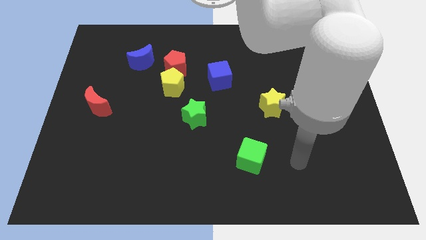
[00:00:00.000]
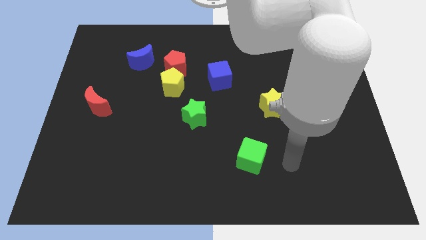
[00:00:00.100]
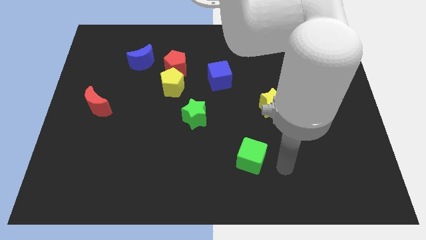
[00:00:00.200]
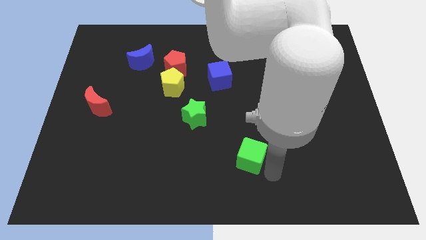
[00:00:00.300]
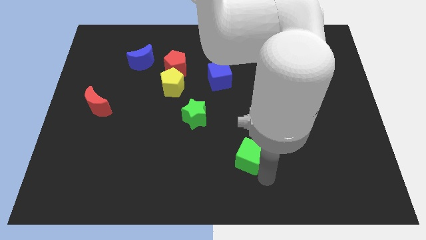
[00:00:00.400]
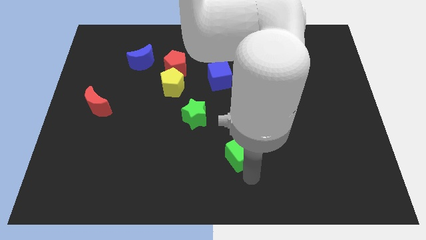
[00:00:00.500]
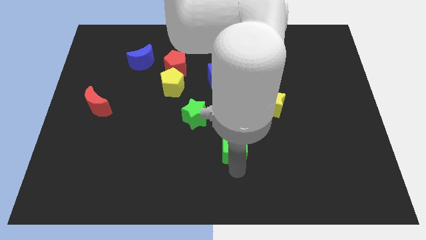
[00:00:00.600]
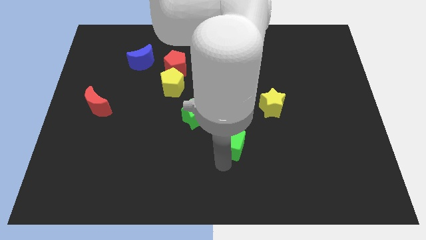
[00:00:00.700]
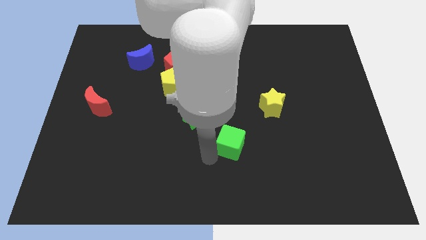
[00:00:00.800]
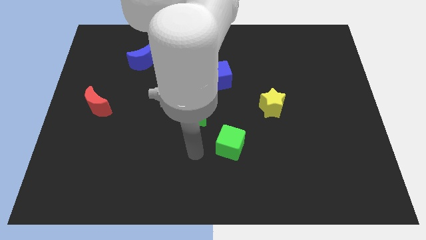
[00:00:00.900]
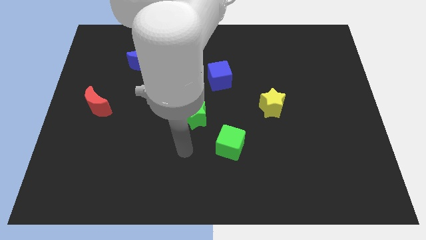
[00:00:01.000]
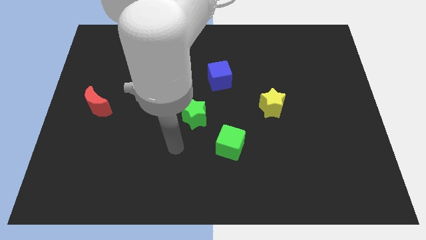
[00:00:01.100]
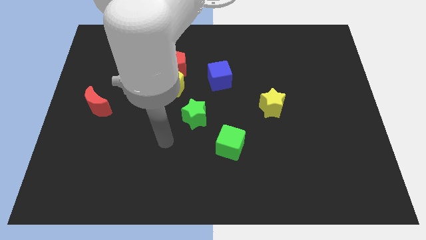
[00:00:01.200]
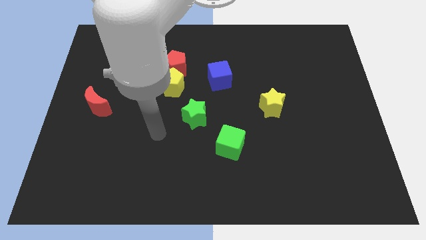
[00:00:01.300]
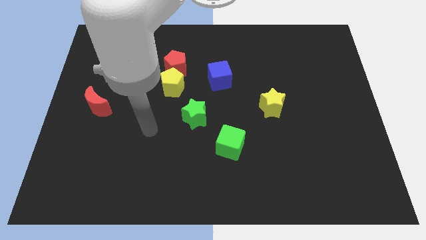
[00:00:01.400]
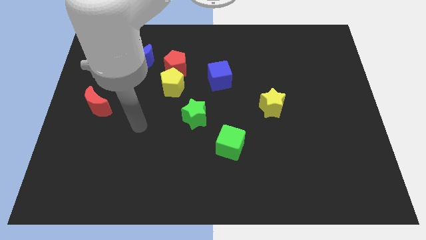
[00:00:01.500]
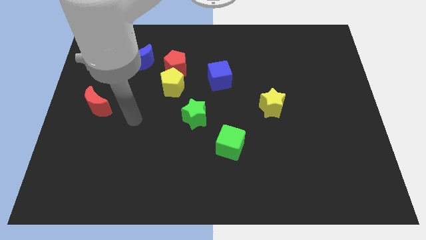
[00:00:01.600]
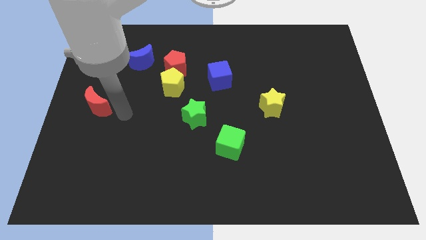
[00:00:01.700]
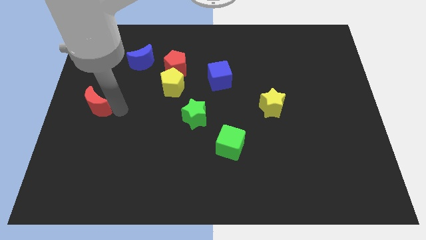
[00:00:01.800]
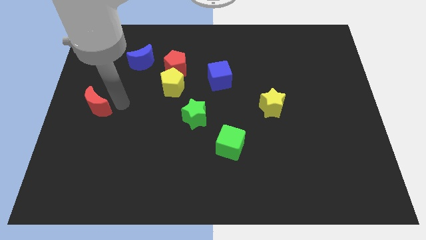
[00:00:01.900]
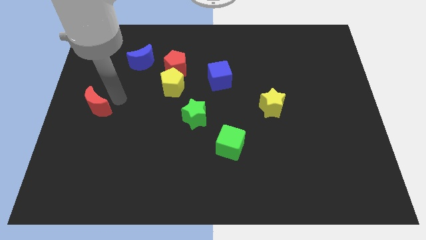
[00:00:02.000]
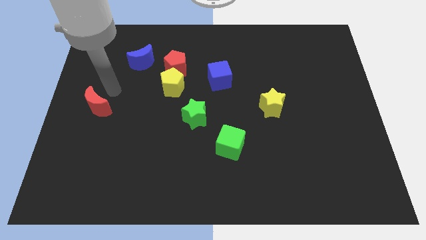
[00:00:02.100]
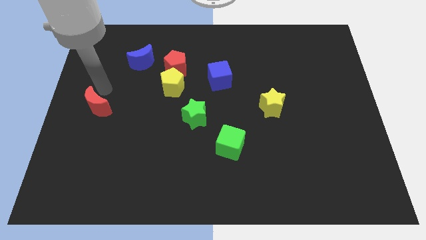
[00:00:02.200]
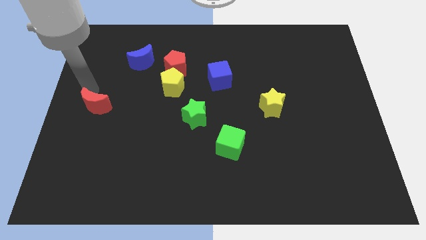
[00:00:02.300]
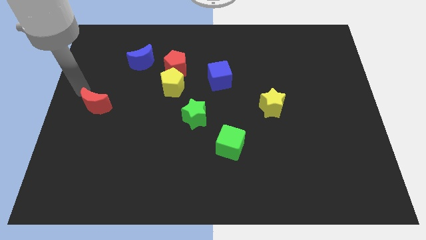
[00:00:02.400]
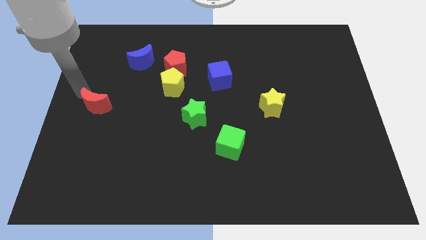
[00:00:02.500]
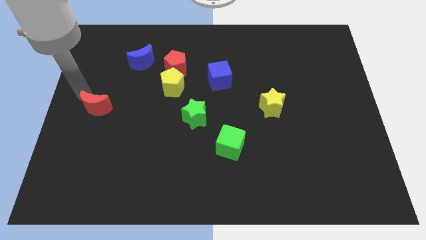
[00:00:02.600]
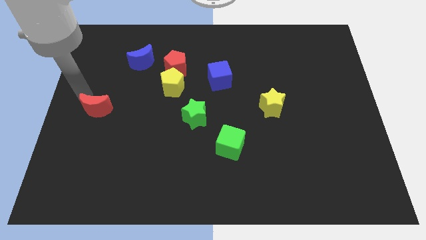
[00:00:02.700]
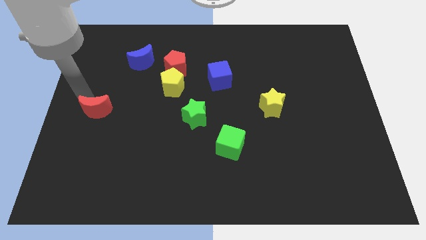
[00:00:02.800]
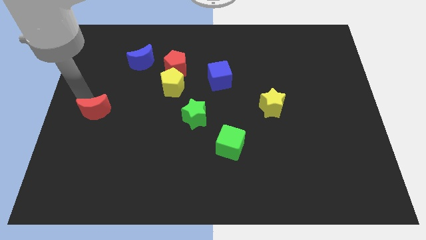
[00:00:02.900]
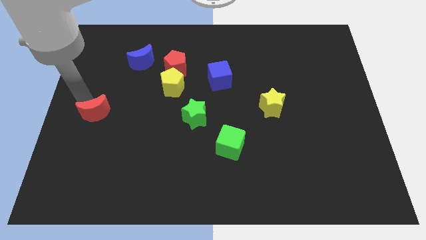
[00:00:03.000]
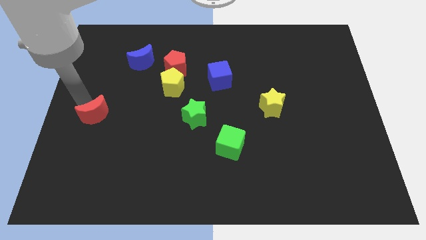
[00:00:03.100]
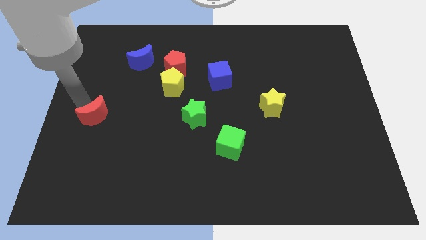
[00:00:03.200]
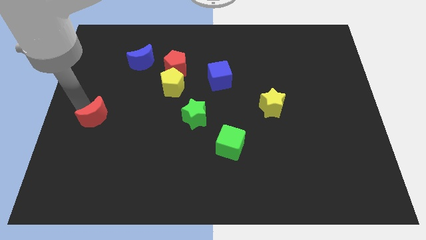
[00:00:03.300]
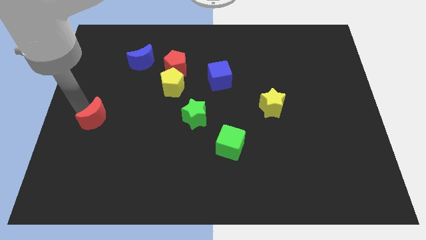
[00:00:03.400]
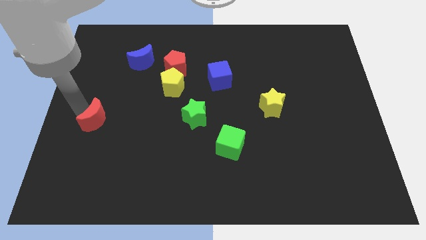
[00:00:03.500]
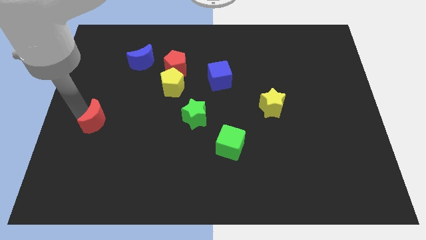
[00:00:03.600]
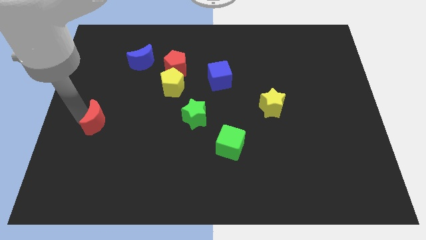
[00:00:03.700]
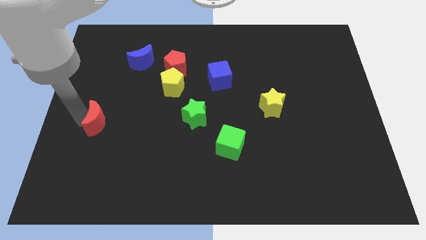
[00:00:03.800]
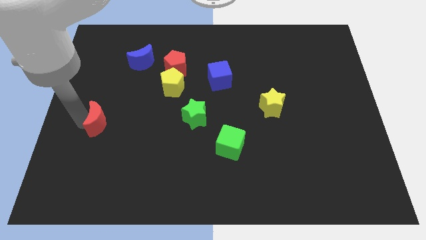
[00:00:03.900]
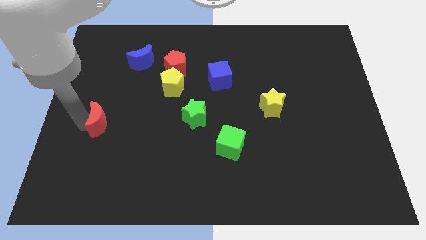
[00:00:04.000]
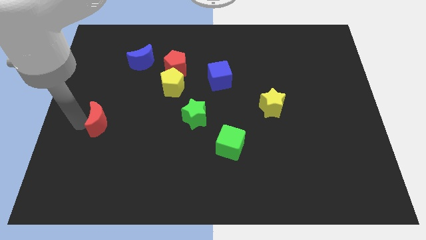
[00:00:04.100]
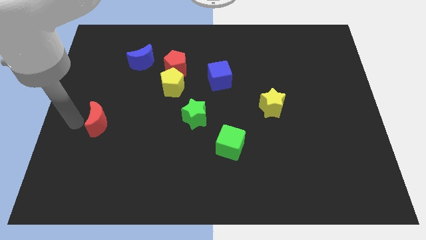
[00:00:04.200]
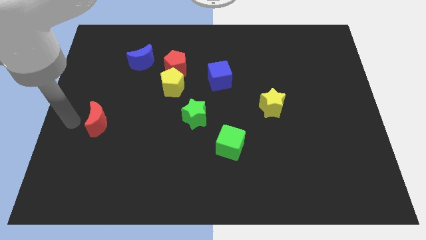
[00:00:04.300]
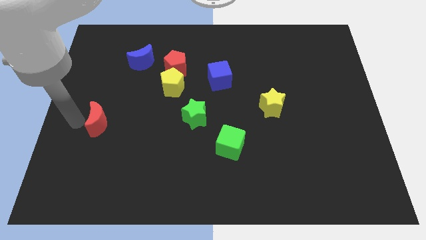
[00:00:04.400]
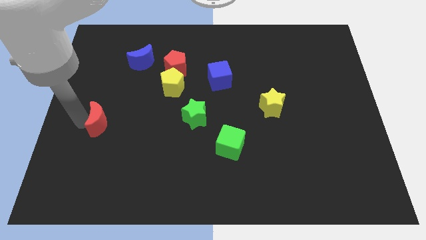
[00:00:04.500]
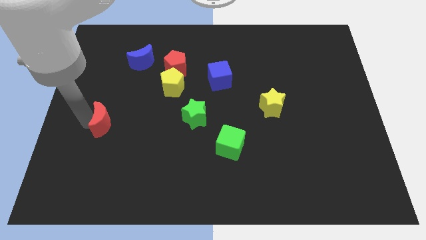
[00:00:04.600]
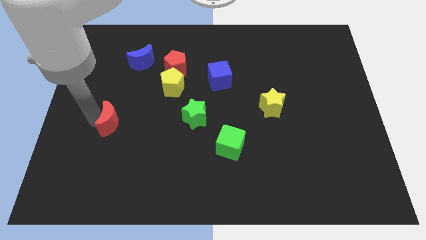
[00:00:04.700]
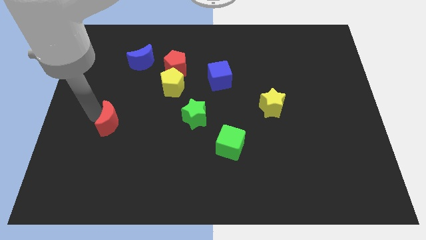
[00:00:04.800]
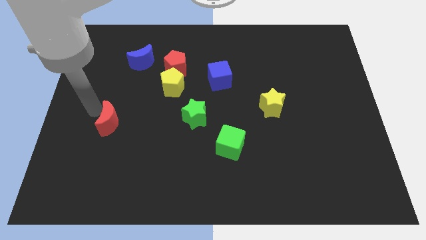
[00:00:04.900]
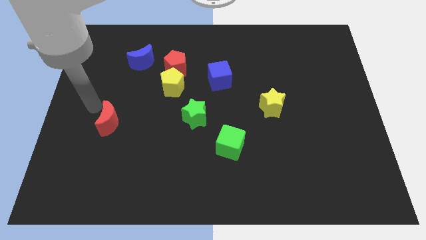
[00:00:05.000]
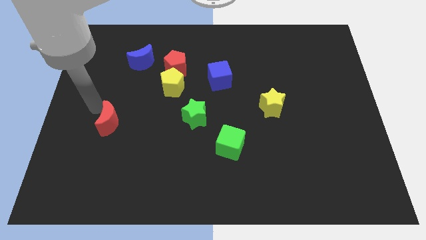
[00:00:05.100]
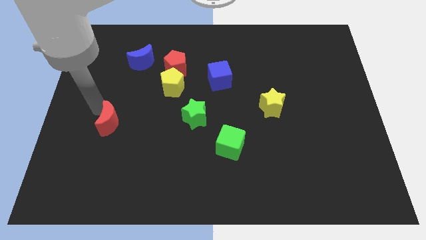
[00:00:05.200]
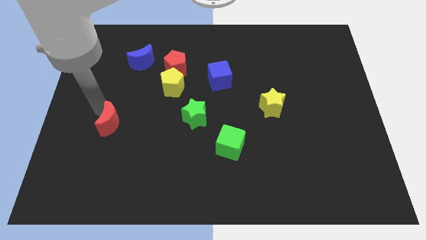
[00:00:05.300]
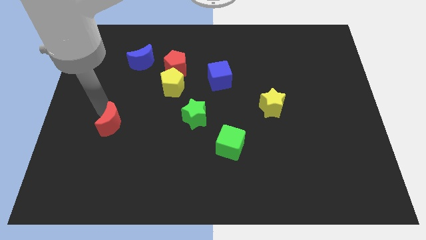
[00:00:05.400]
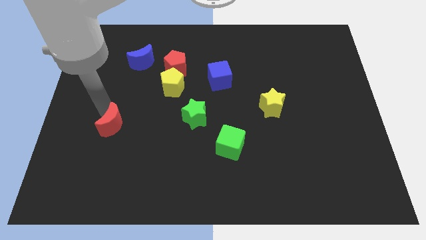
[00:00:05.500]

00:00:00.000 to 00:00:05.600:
move the red moon a little downwards and right

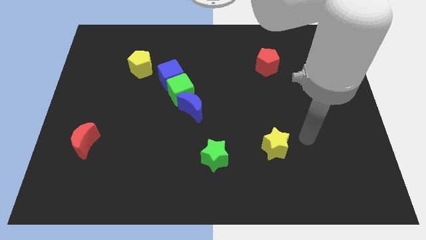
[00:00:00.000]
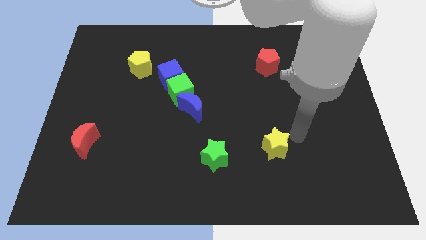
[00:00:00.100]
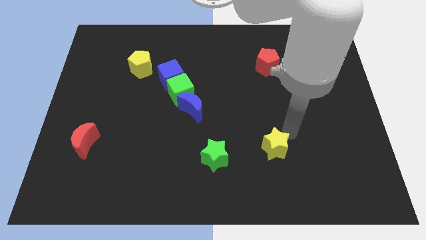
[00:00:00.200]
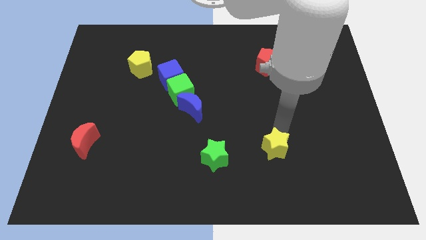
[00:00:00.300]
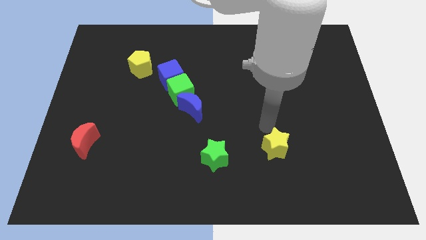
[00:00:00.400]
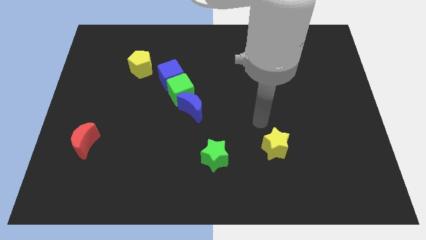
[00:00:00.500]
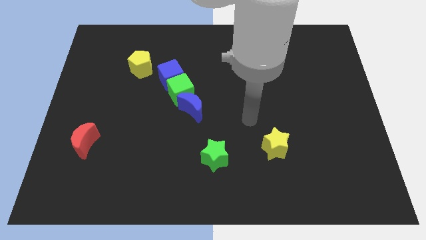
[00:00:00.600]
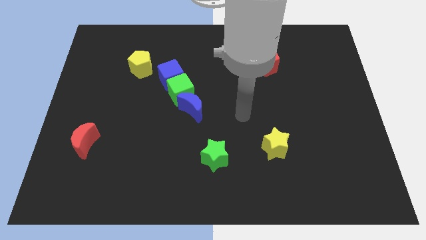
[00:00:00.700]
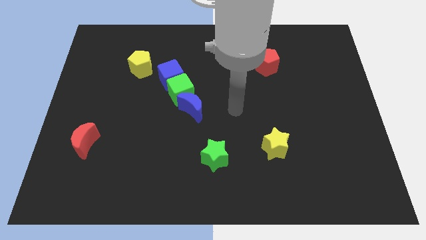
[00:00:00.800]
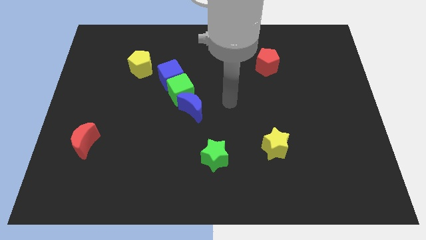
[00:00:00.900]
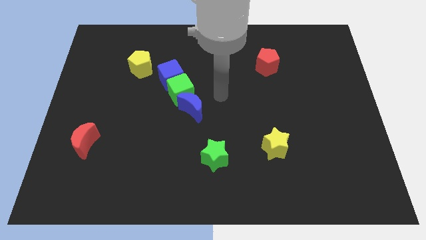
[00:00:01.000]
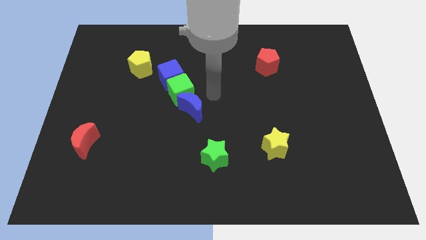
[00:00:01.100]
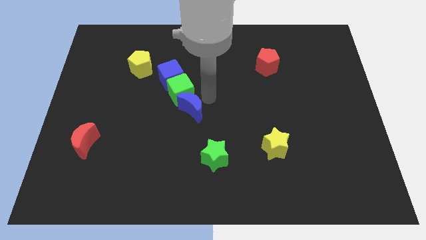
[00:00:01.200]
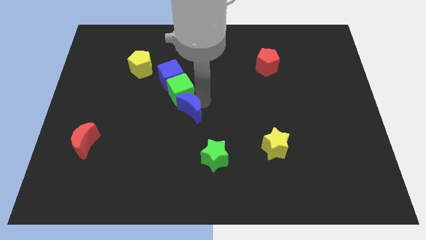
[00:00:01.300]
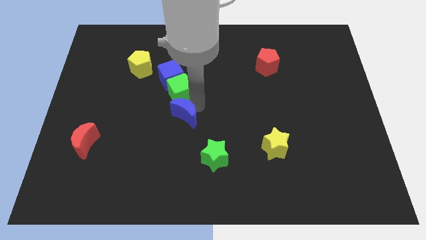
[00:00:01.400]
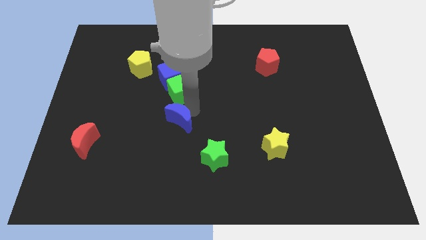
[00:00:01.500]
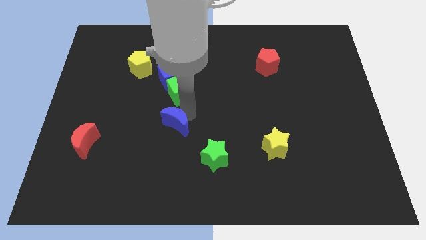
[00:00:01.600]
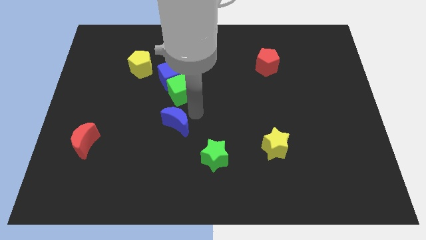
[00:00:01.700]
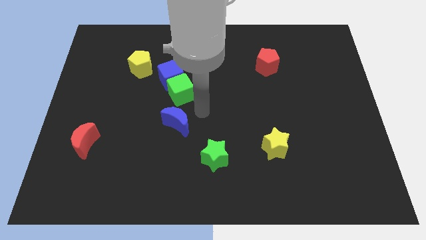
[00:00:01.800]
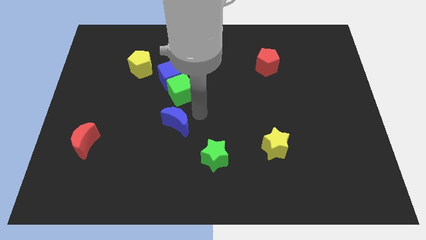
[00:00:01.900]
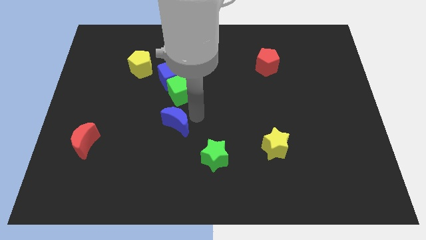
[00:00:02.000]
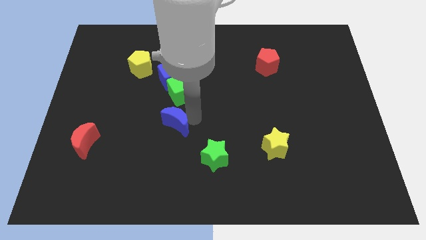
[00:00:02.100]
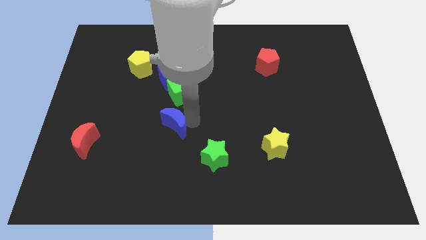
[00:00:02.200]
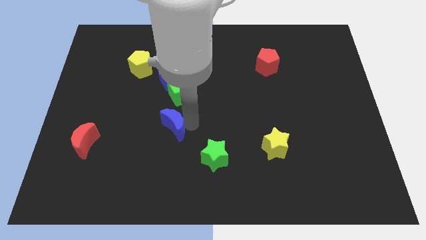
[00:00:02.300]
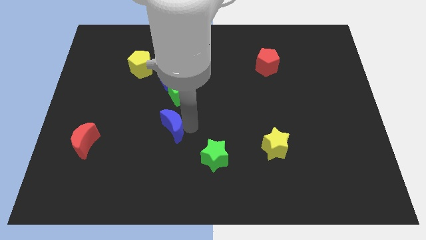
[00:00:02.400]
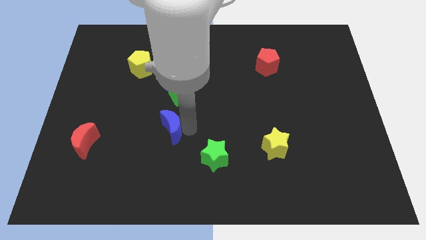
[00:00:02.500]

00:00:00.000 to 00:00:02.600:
move the blue moon a little bit down and to the left
